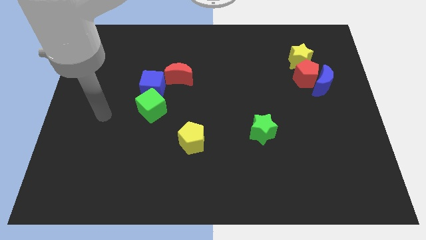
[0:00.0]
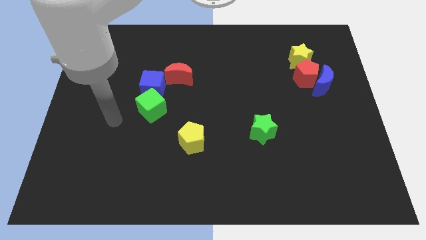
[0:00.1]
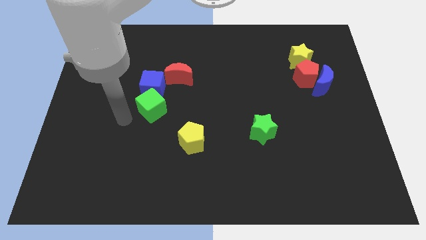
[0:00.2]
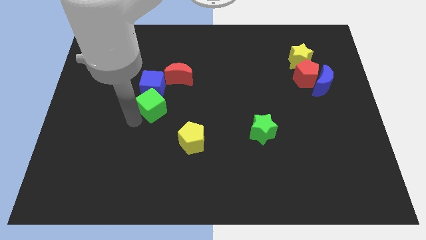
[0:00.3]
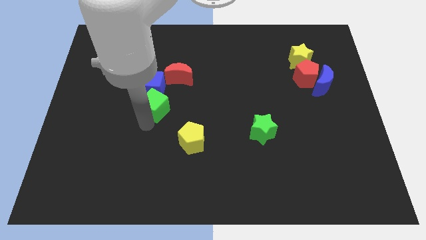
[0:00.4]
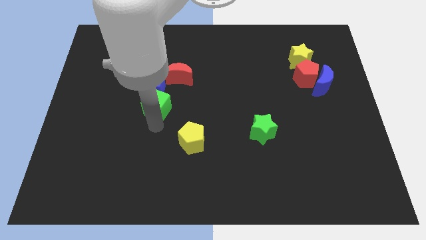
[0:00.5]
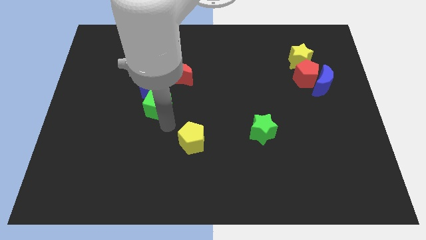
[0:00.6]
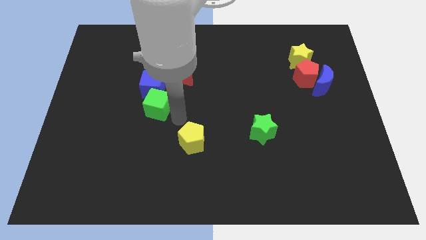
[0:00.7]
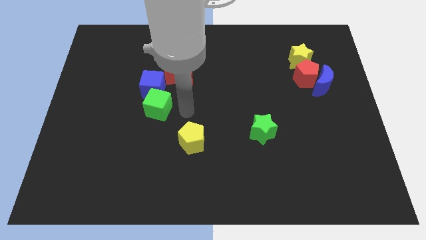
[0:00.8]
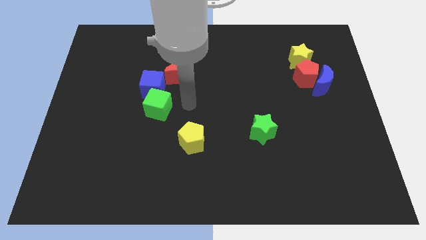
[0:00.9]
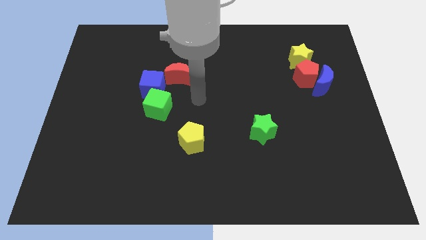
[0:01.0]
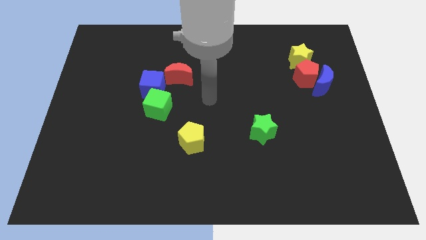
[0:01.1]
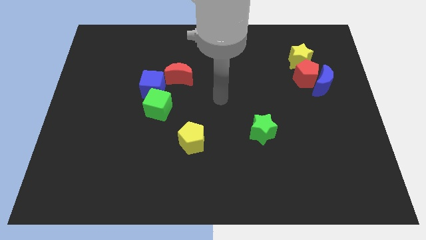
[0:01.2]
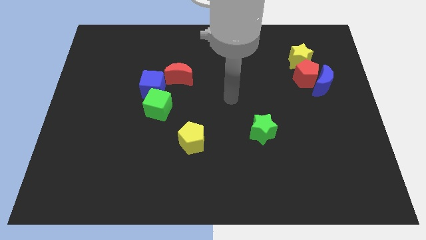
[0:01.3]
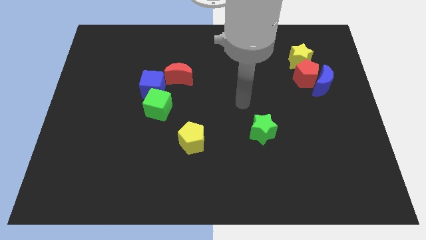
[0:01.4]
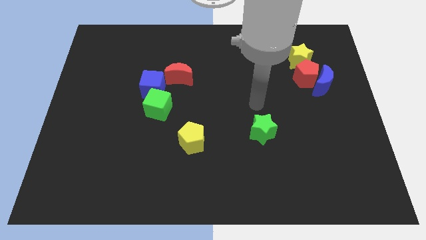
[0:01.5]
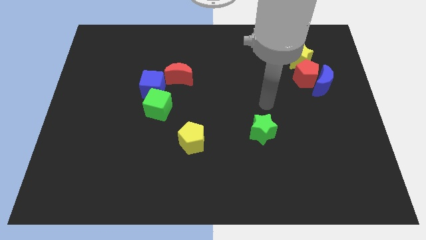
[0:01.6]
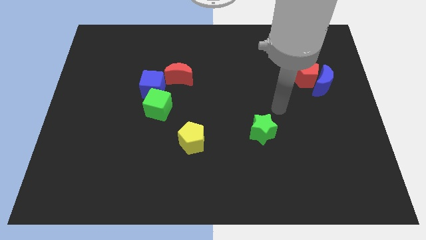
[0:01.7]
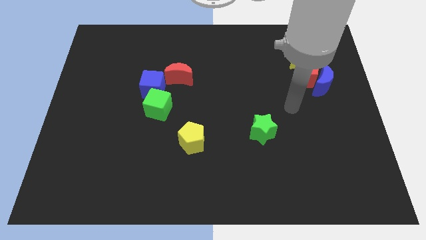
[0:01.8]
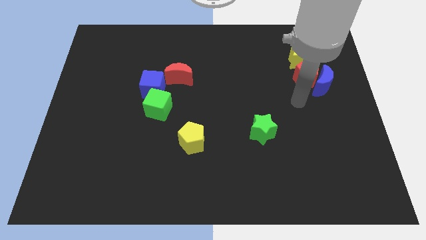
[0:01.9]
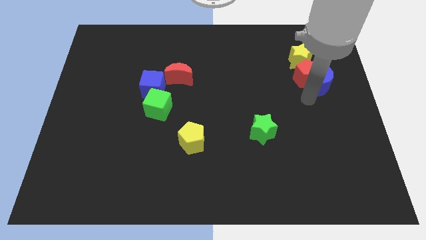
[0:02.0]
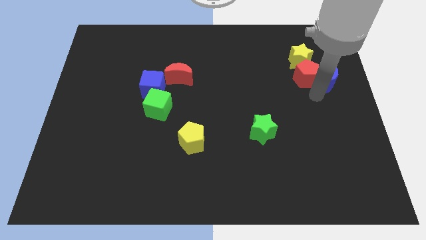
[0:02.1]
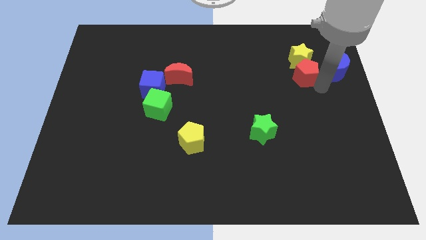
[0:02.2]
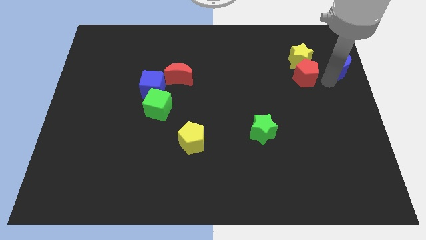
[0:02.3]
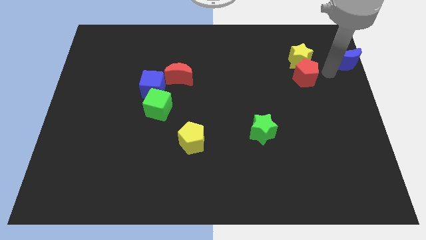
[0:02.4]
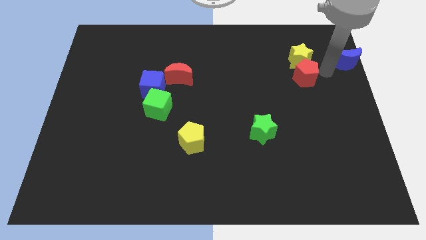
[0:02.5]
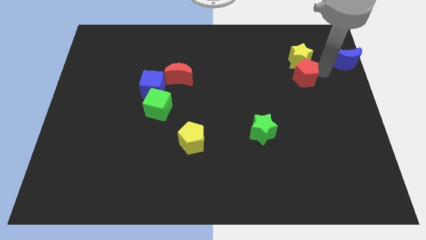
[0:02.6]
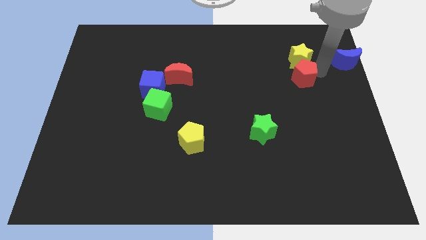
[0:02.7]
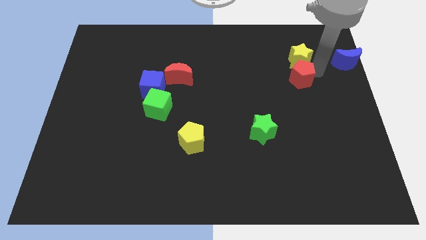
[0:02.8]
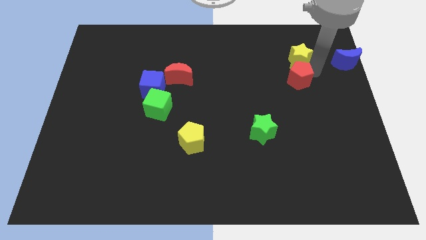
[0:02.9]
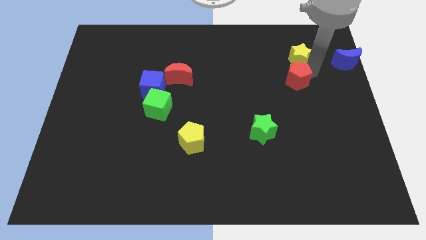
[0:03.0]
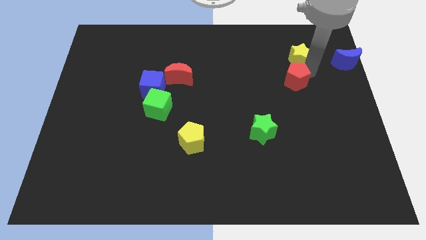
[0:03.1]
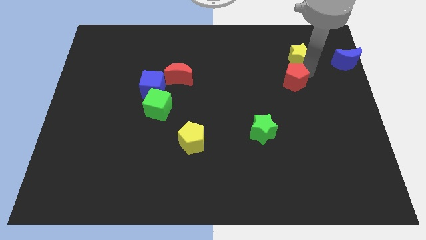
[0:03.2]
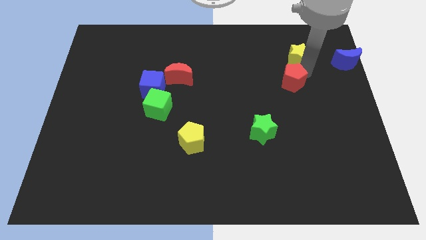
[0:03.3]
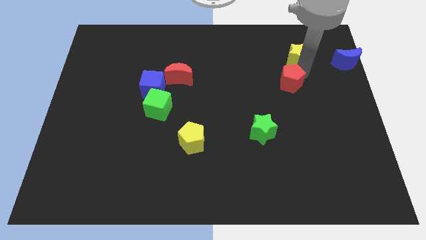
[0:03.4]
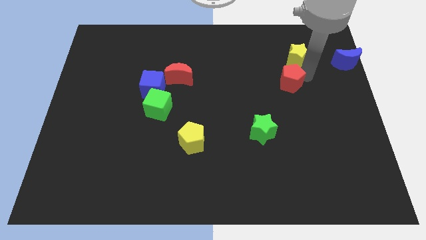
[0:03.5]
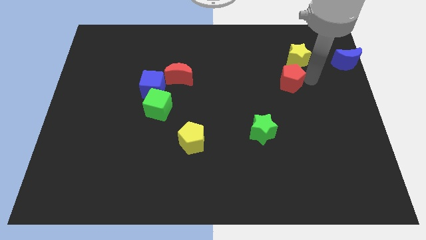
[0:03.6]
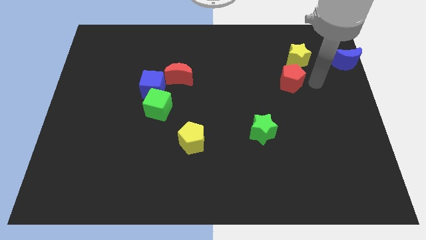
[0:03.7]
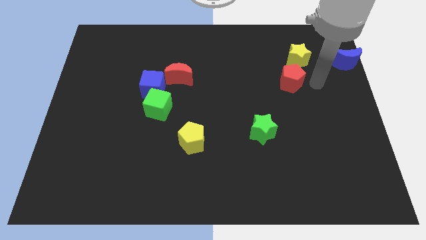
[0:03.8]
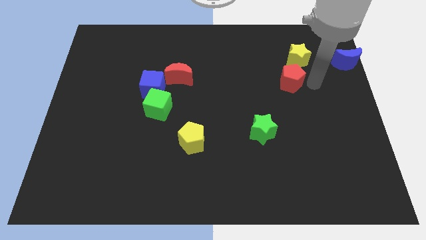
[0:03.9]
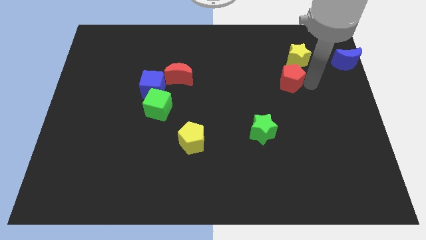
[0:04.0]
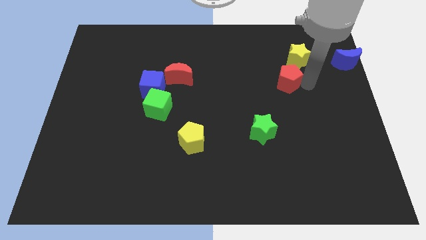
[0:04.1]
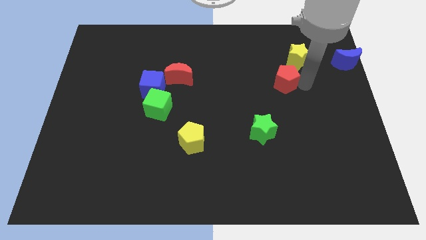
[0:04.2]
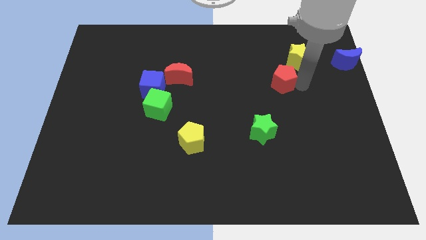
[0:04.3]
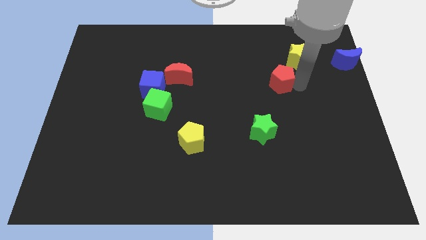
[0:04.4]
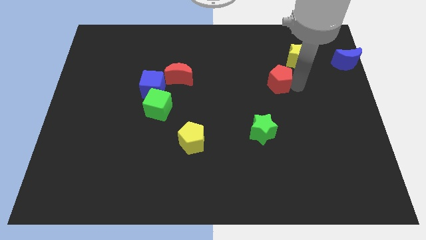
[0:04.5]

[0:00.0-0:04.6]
slightly slide the red pentagon left

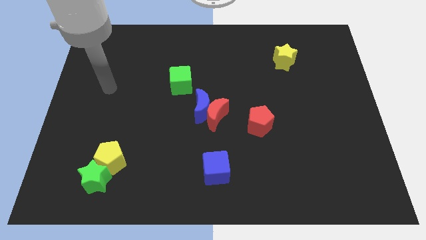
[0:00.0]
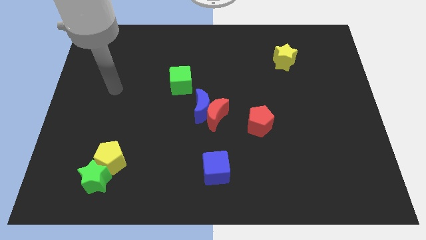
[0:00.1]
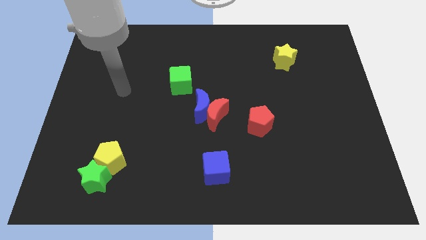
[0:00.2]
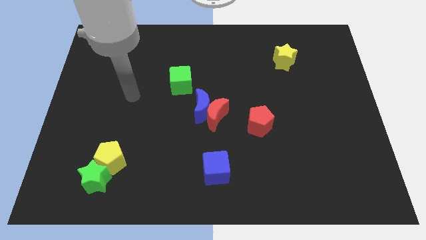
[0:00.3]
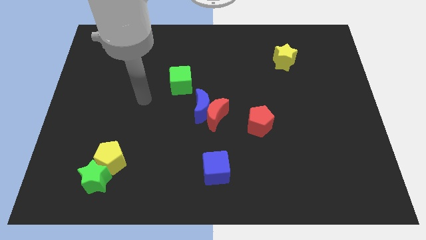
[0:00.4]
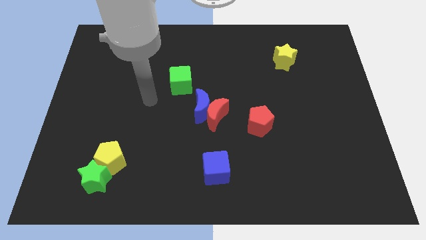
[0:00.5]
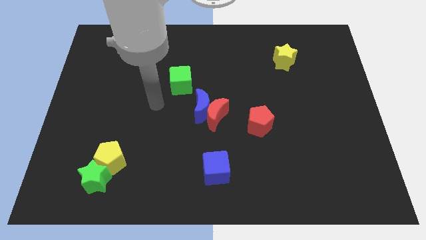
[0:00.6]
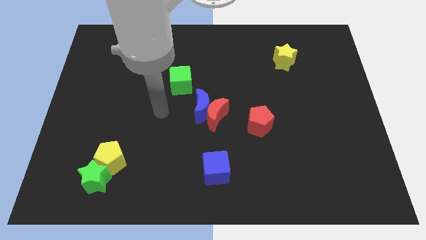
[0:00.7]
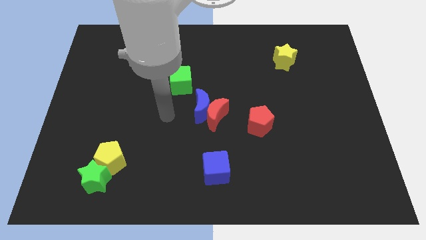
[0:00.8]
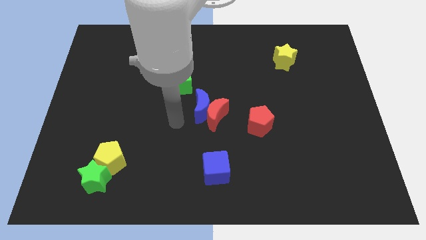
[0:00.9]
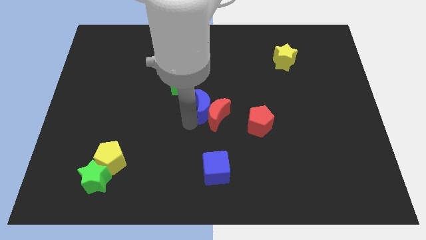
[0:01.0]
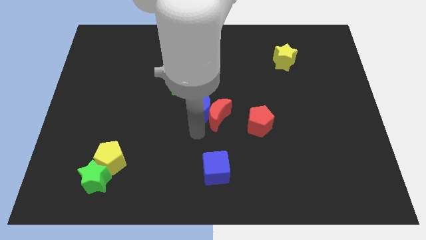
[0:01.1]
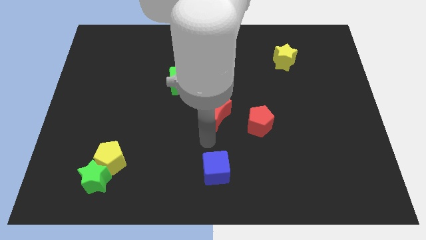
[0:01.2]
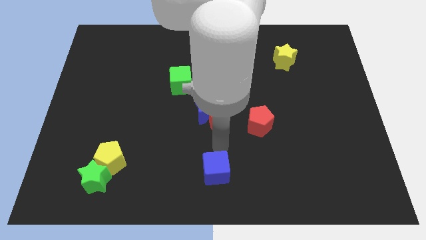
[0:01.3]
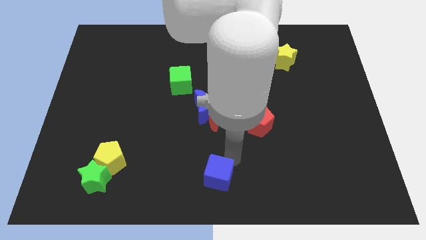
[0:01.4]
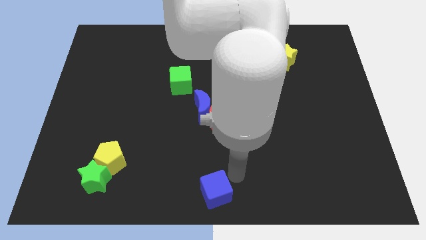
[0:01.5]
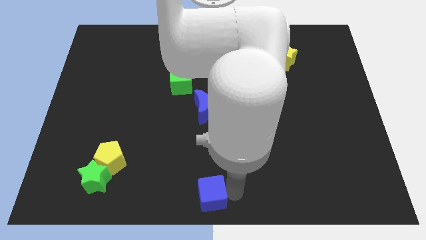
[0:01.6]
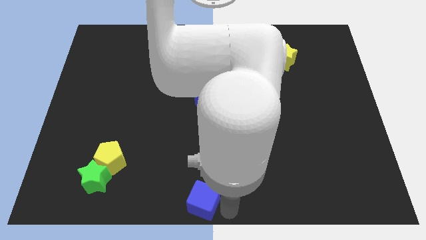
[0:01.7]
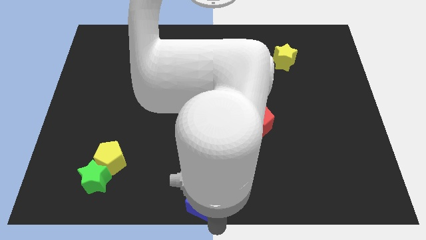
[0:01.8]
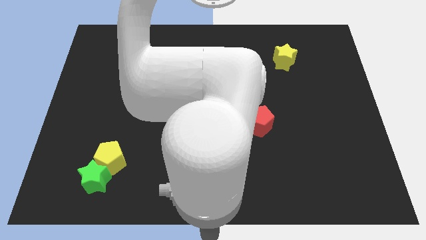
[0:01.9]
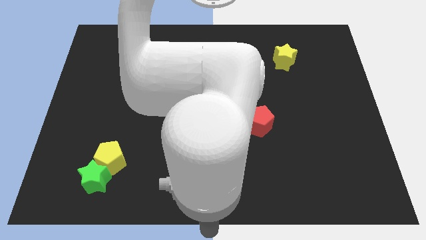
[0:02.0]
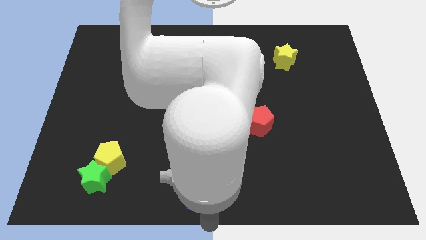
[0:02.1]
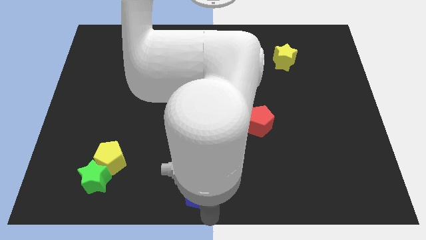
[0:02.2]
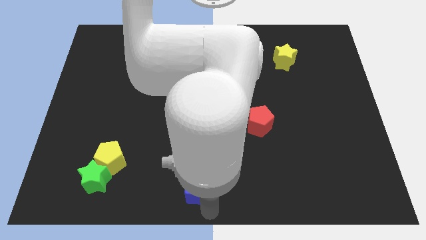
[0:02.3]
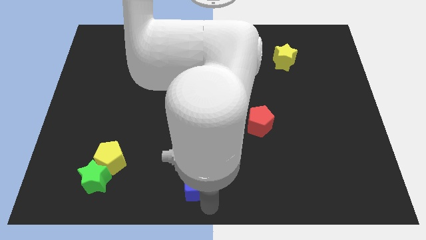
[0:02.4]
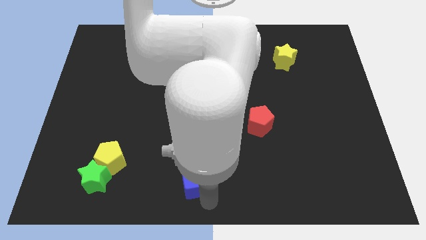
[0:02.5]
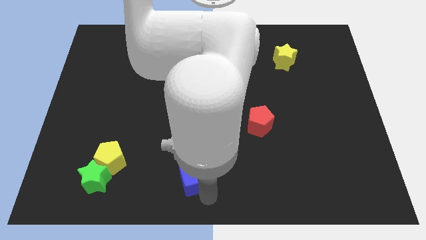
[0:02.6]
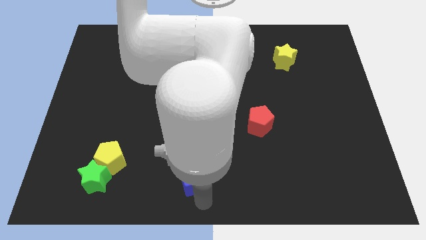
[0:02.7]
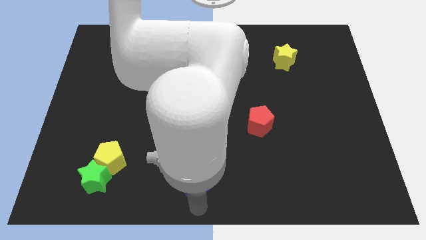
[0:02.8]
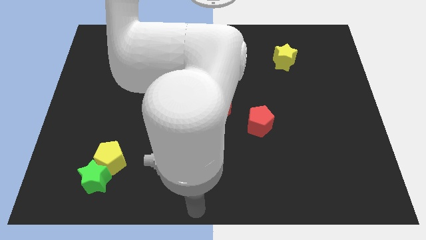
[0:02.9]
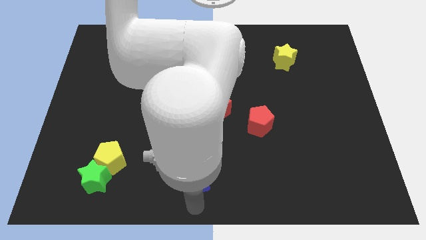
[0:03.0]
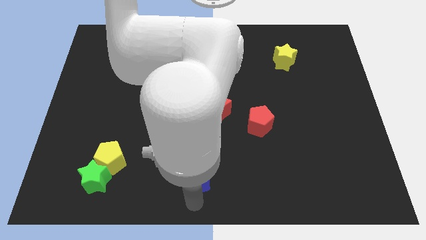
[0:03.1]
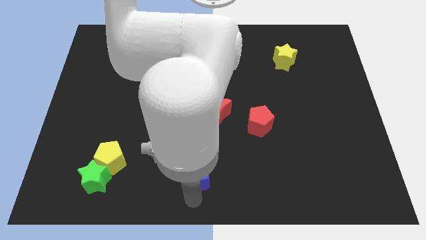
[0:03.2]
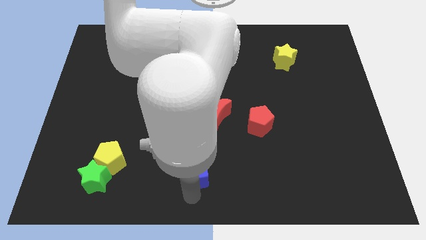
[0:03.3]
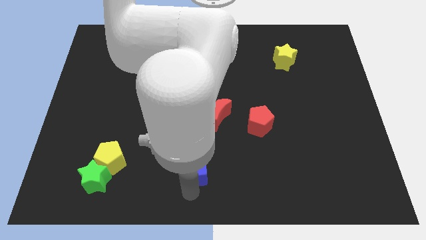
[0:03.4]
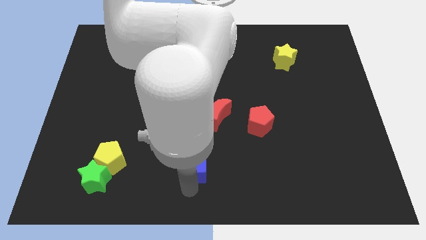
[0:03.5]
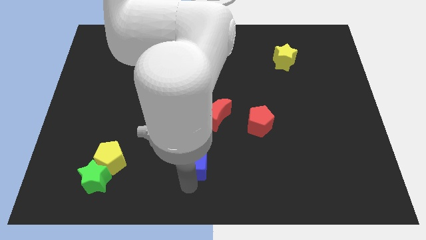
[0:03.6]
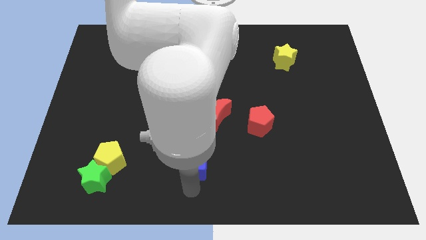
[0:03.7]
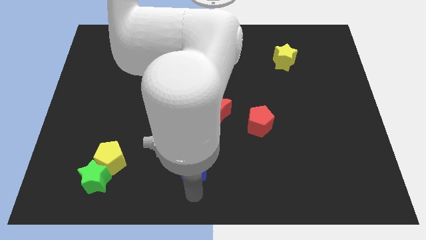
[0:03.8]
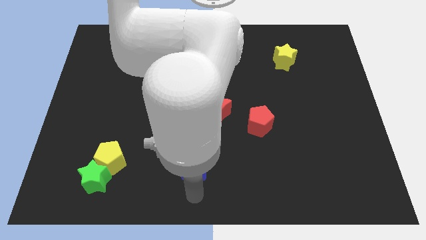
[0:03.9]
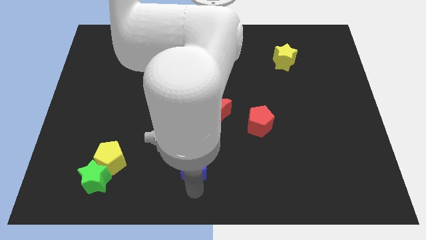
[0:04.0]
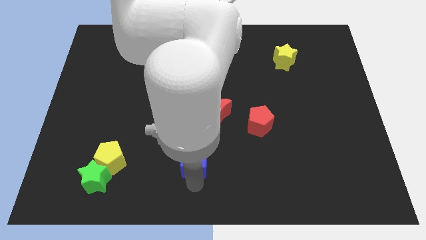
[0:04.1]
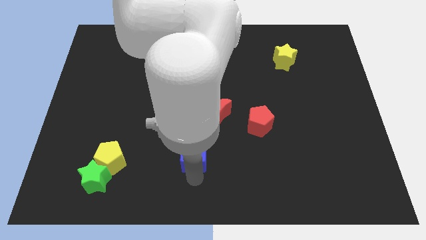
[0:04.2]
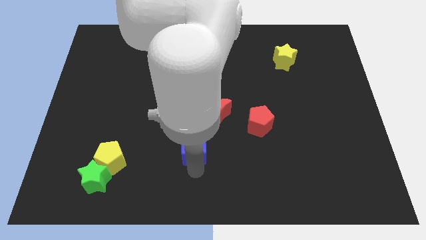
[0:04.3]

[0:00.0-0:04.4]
slide the blue cube a bit upwards and left diagonally
